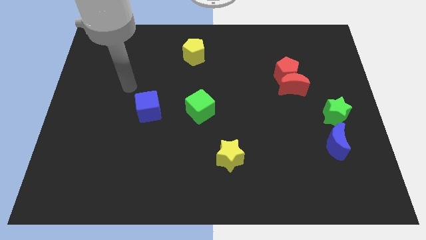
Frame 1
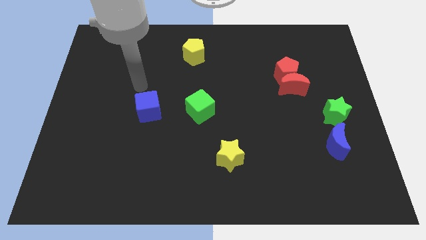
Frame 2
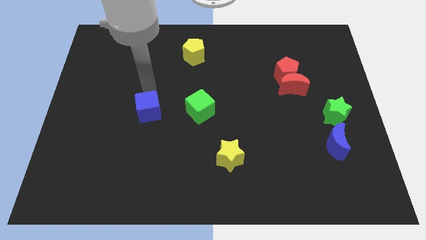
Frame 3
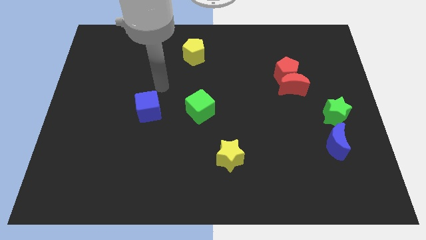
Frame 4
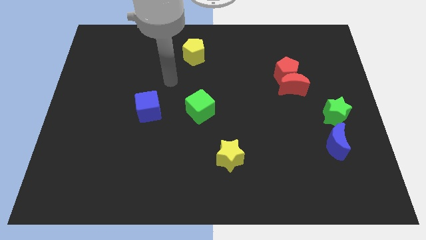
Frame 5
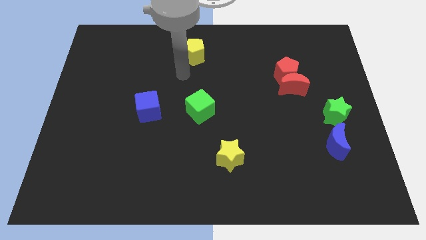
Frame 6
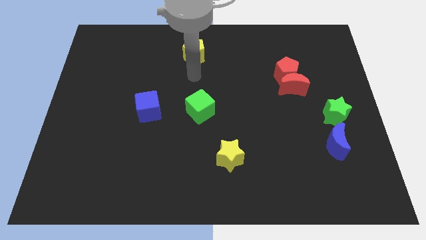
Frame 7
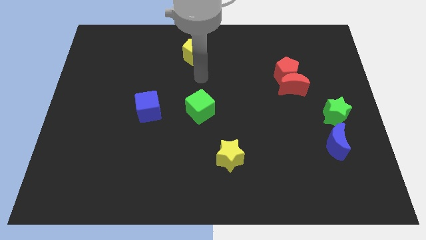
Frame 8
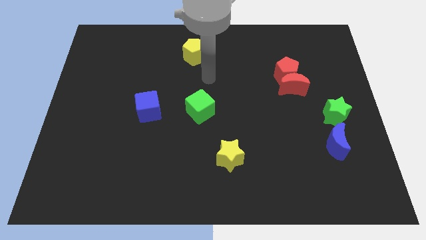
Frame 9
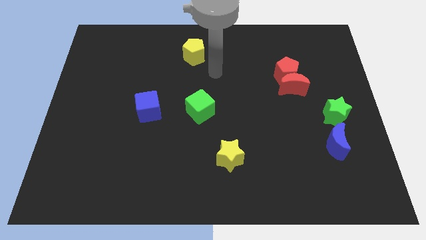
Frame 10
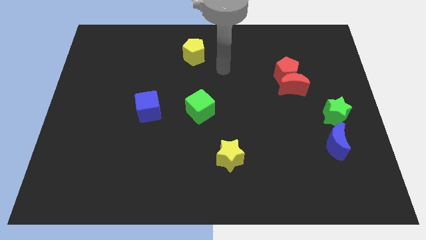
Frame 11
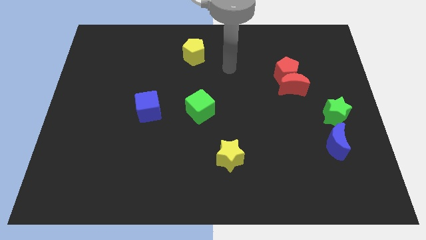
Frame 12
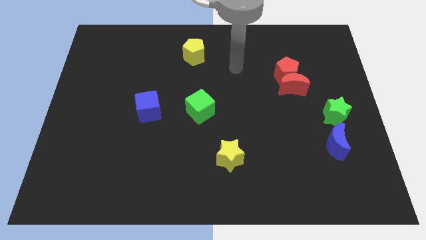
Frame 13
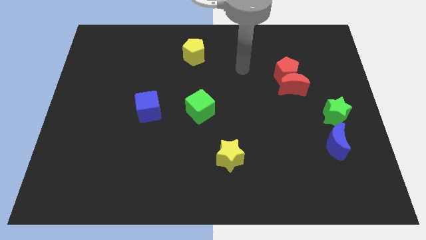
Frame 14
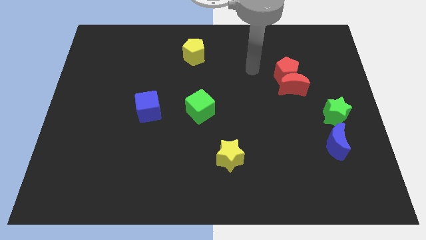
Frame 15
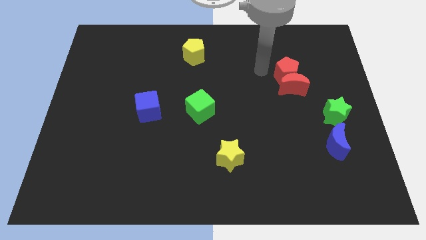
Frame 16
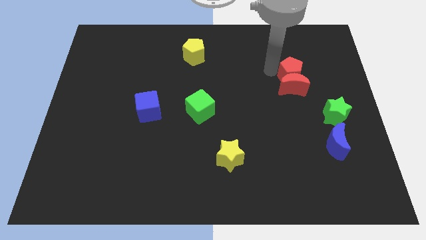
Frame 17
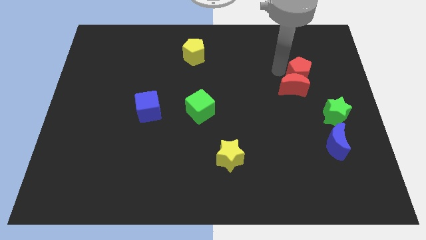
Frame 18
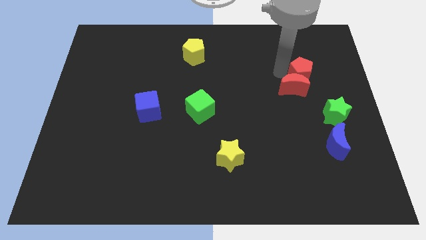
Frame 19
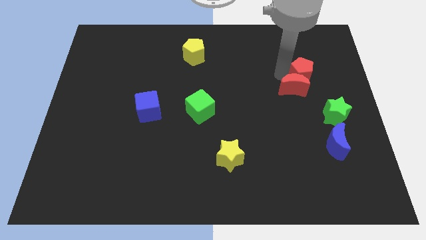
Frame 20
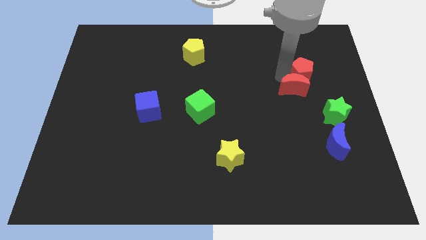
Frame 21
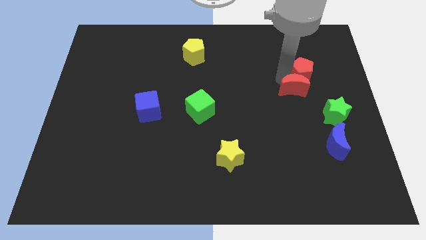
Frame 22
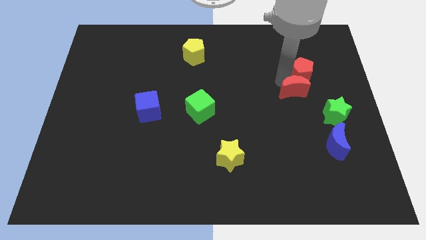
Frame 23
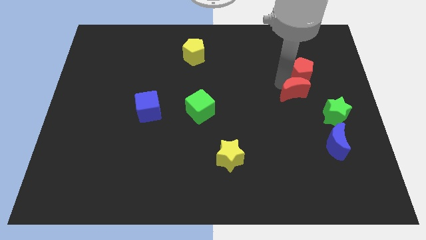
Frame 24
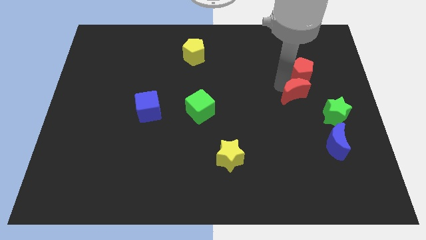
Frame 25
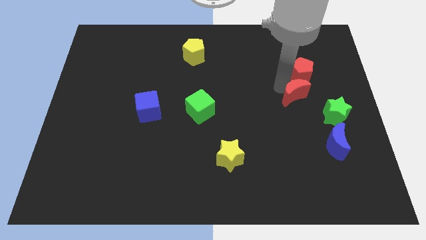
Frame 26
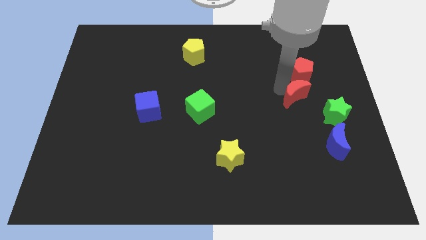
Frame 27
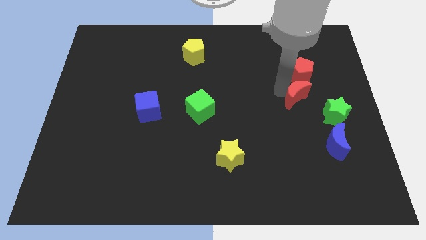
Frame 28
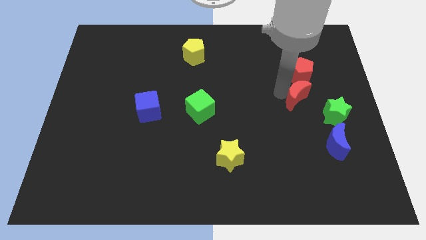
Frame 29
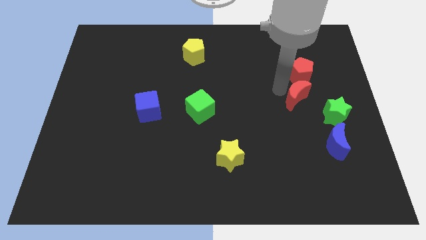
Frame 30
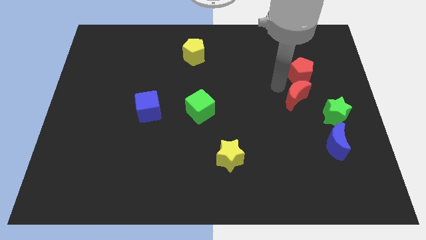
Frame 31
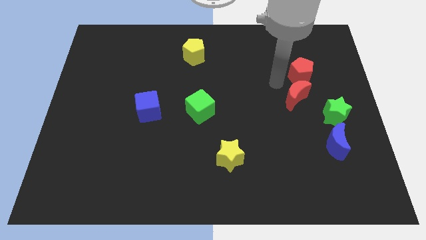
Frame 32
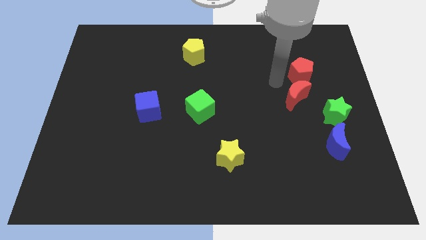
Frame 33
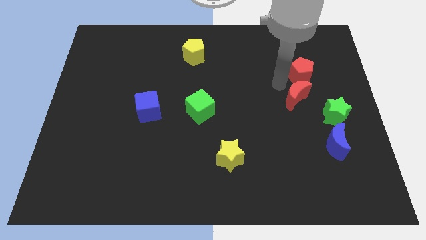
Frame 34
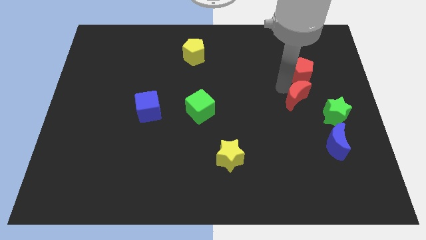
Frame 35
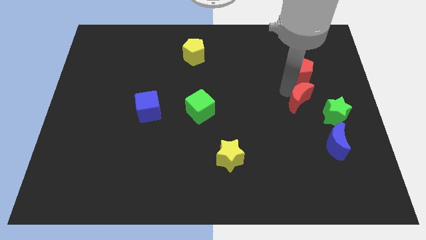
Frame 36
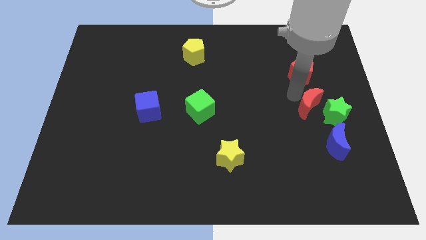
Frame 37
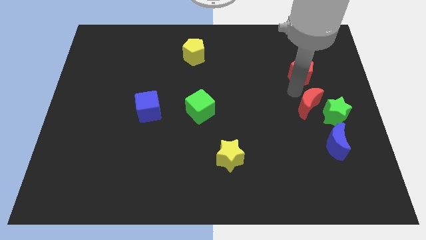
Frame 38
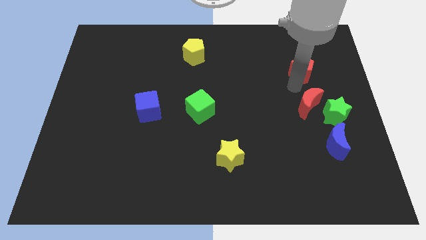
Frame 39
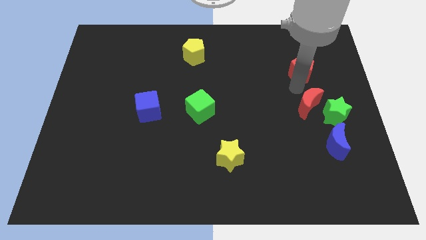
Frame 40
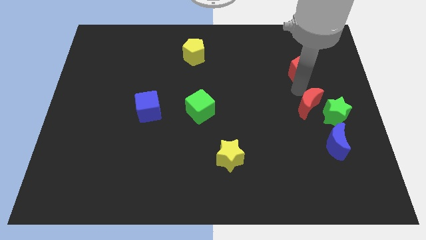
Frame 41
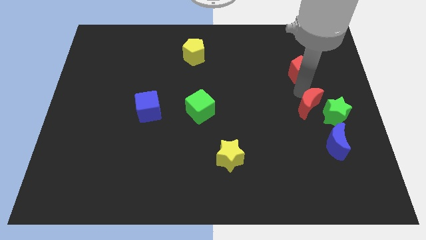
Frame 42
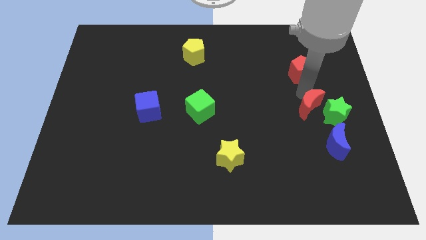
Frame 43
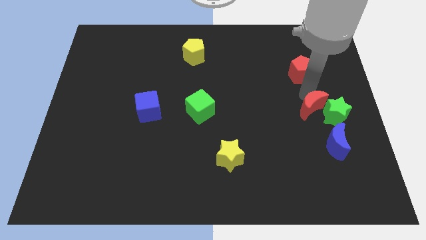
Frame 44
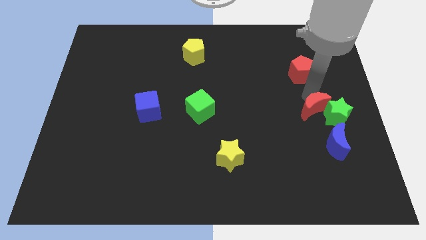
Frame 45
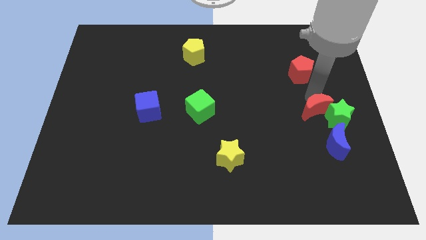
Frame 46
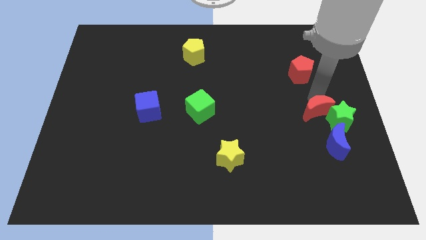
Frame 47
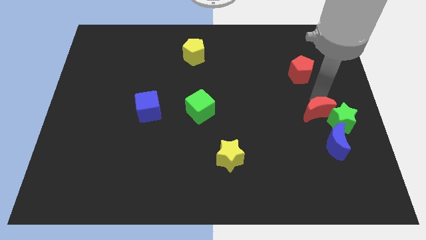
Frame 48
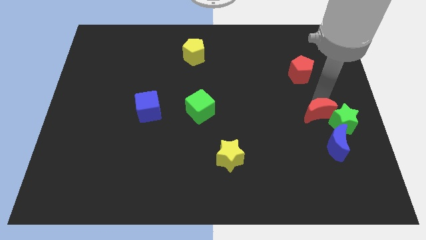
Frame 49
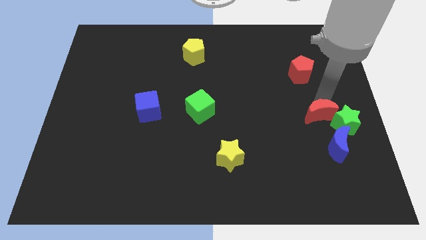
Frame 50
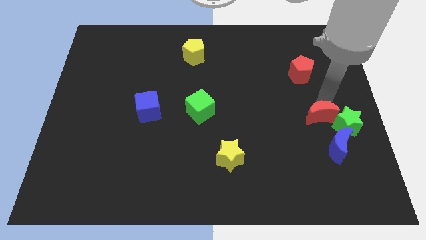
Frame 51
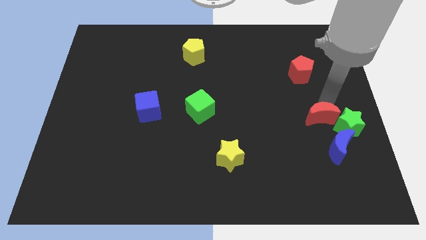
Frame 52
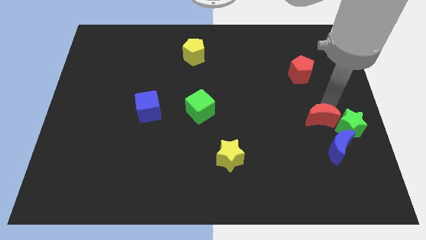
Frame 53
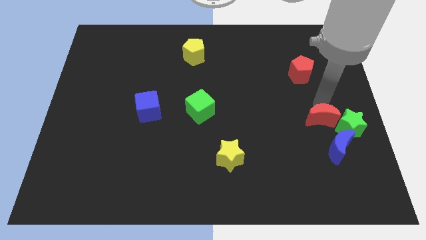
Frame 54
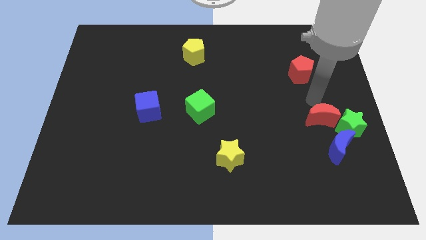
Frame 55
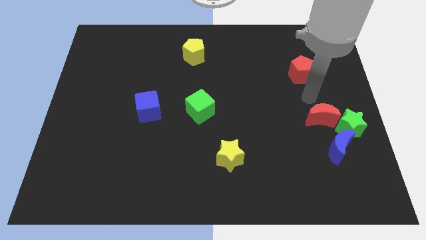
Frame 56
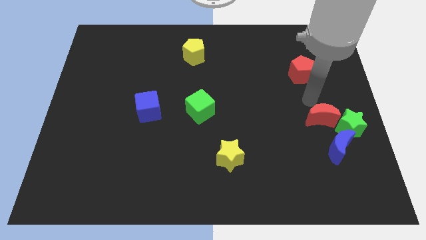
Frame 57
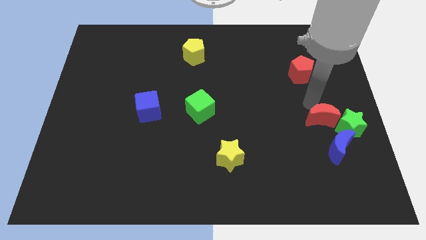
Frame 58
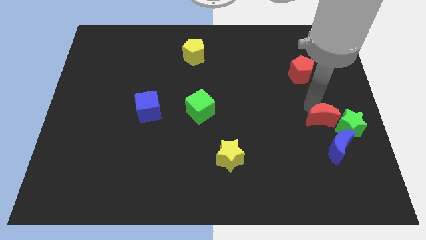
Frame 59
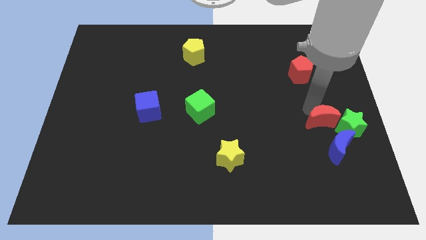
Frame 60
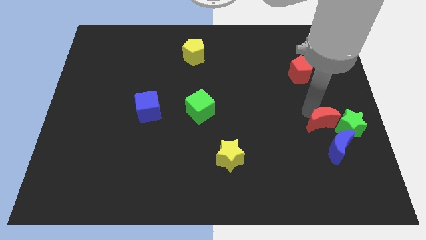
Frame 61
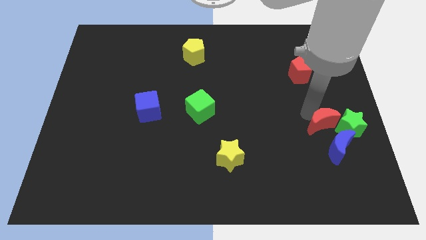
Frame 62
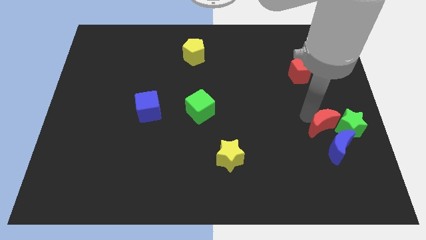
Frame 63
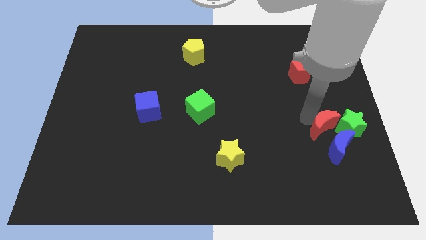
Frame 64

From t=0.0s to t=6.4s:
put the red moon to the blue moon

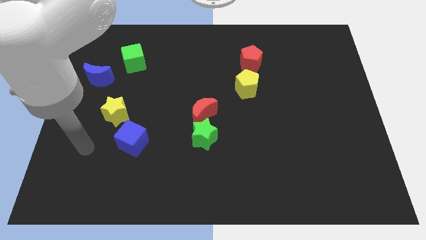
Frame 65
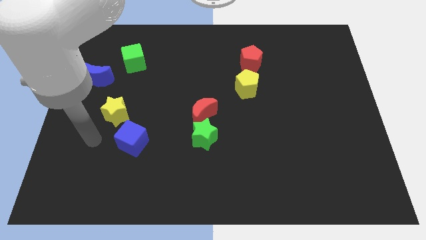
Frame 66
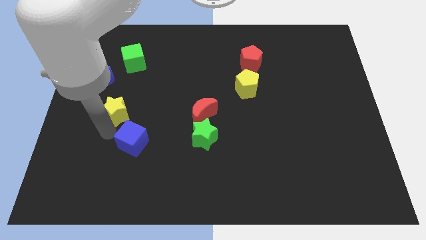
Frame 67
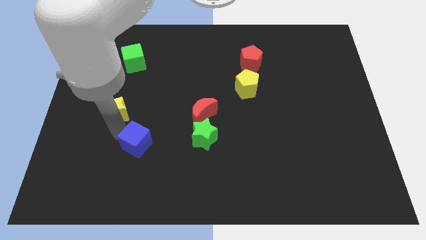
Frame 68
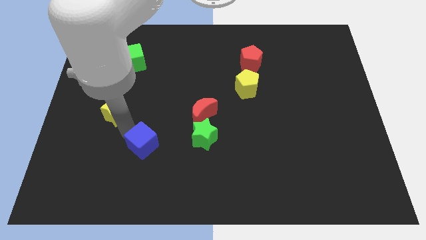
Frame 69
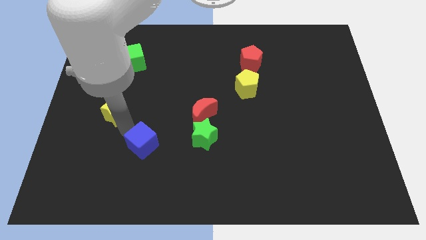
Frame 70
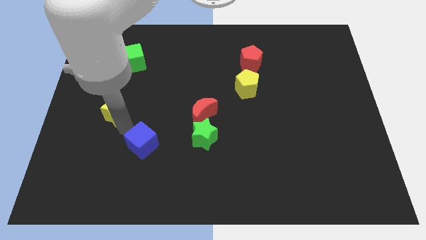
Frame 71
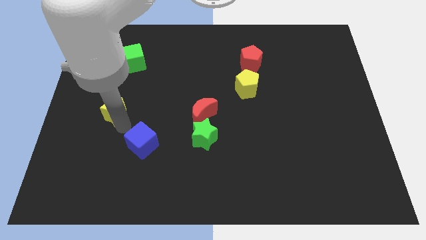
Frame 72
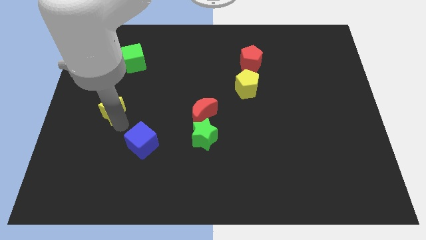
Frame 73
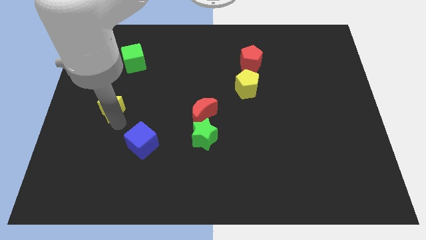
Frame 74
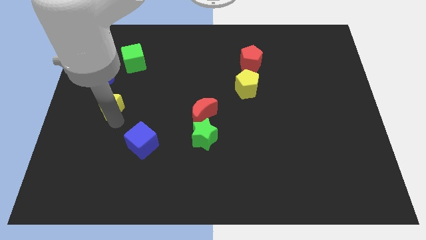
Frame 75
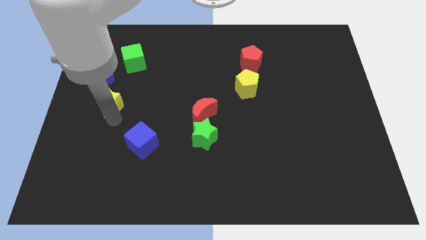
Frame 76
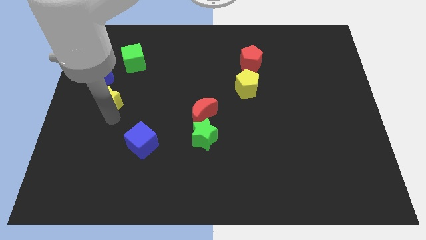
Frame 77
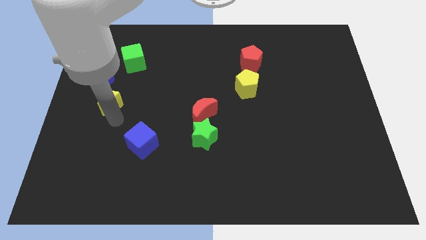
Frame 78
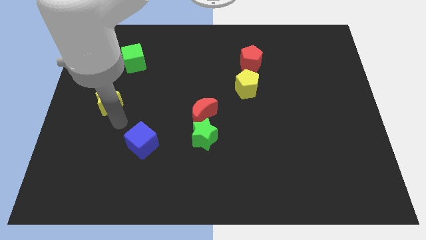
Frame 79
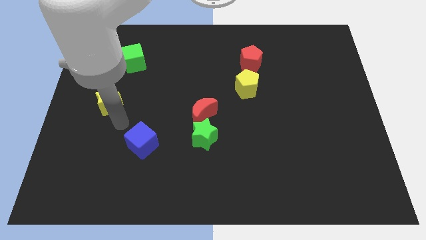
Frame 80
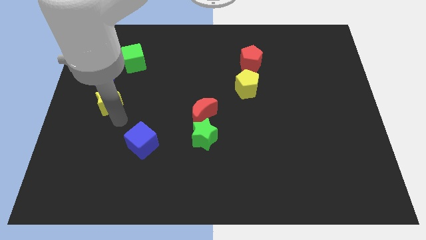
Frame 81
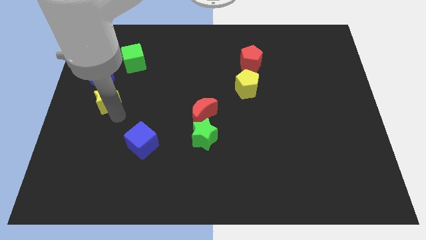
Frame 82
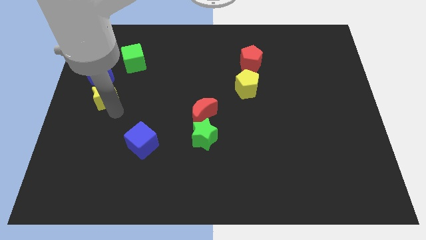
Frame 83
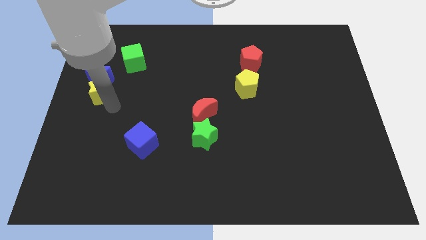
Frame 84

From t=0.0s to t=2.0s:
push the yellow star to the blue moon
